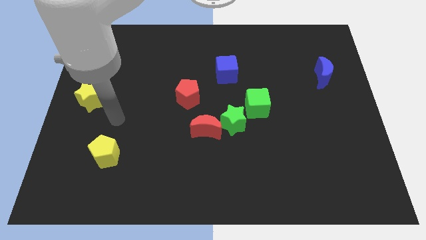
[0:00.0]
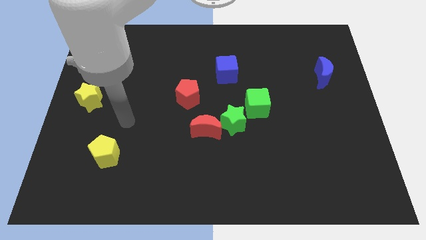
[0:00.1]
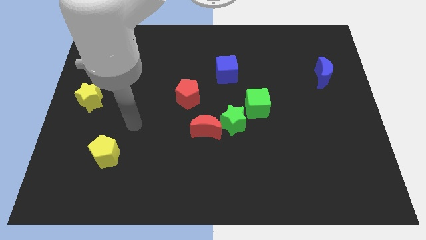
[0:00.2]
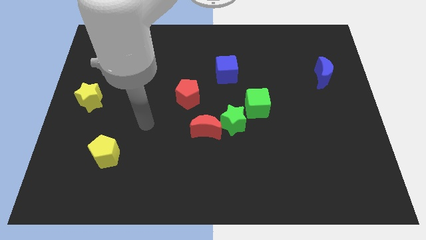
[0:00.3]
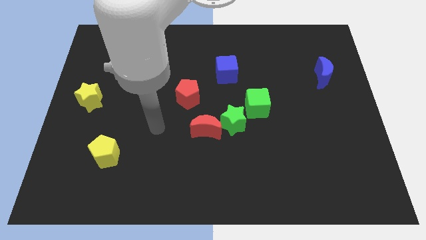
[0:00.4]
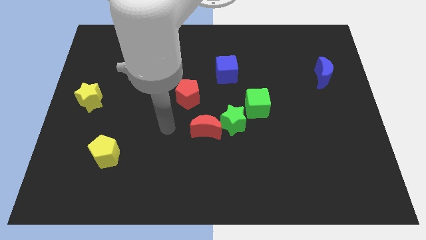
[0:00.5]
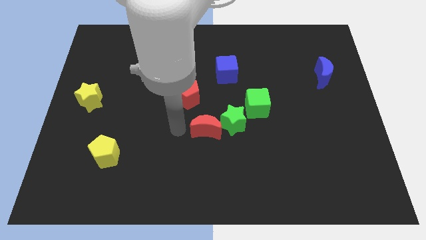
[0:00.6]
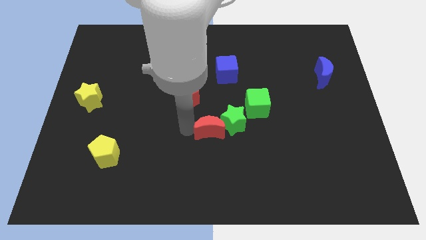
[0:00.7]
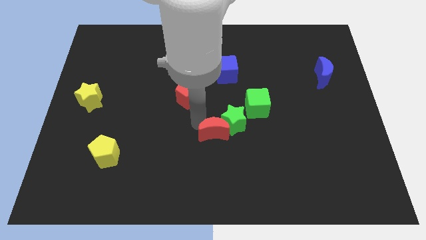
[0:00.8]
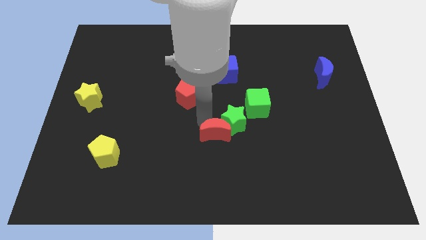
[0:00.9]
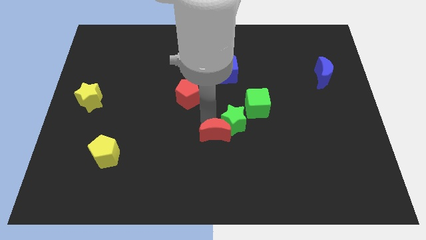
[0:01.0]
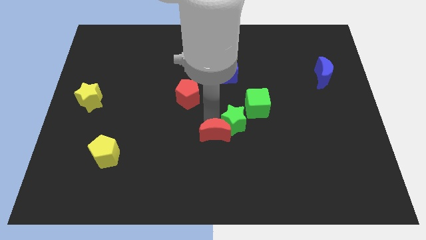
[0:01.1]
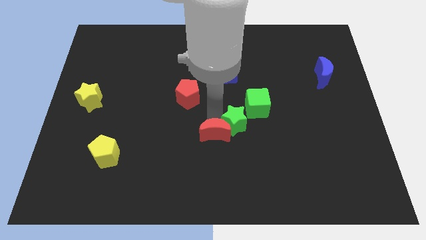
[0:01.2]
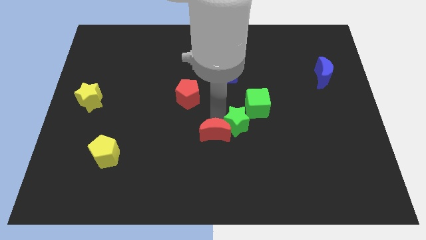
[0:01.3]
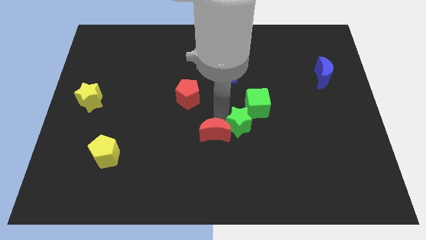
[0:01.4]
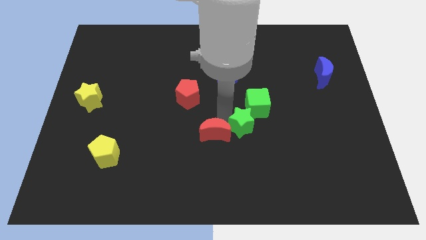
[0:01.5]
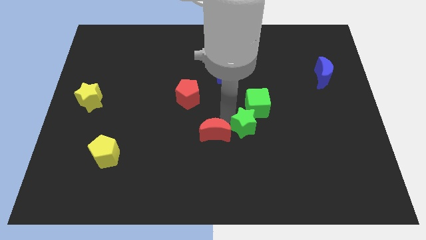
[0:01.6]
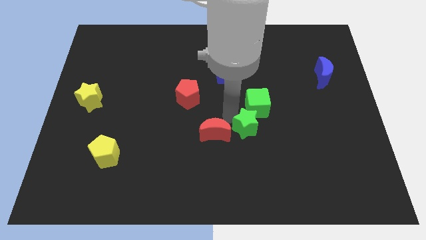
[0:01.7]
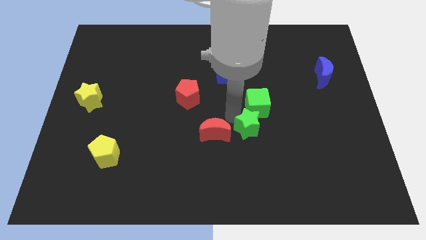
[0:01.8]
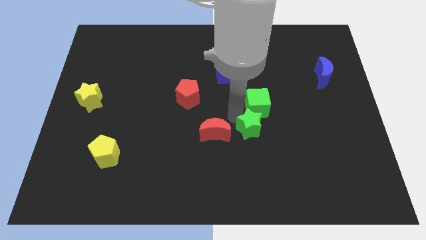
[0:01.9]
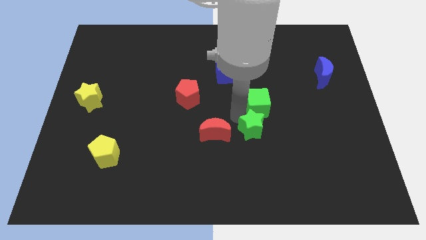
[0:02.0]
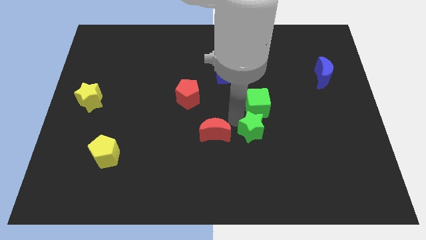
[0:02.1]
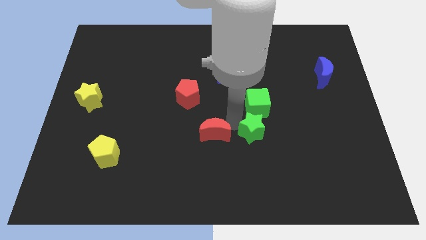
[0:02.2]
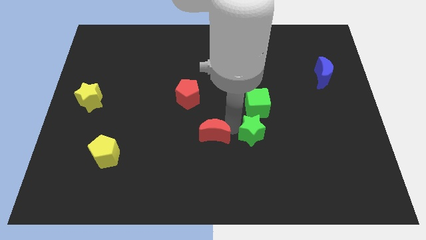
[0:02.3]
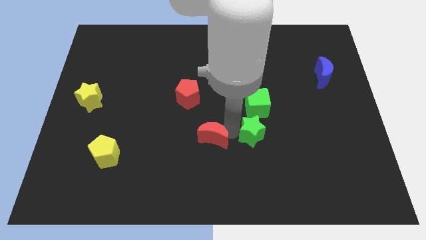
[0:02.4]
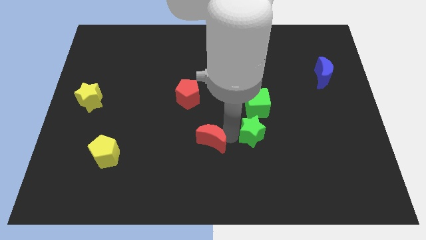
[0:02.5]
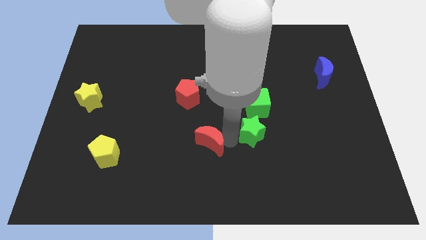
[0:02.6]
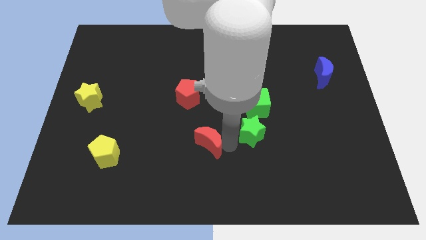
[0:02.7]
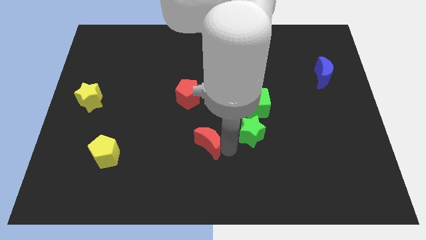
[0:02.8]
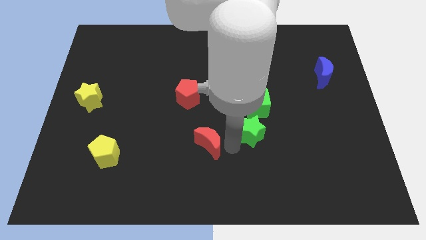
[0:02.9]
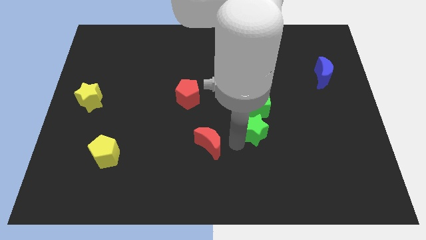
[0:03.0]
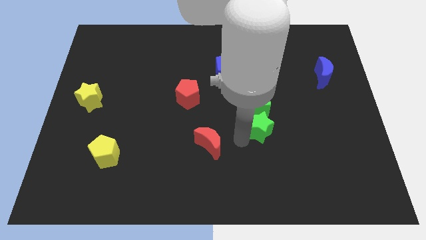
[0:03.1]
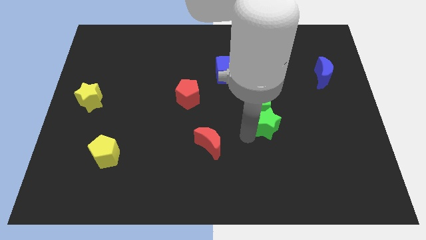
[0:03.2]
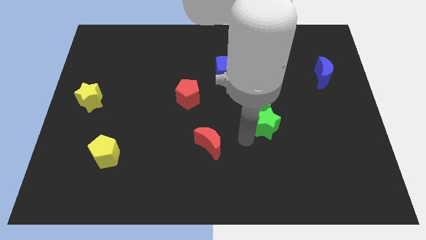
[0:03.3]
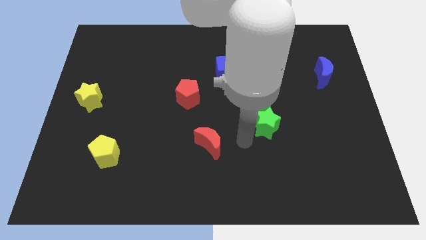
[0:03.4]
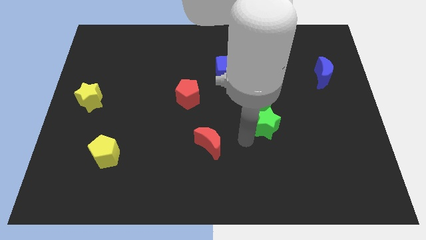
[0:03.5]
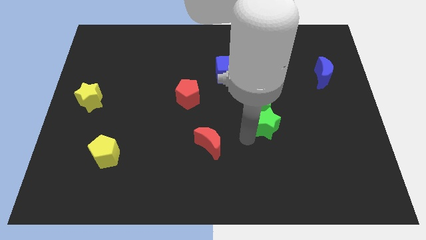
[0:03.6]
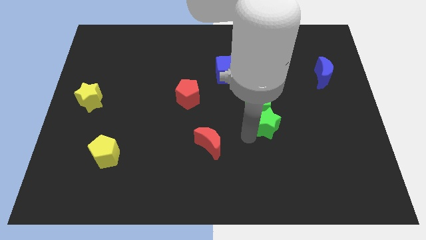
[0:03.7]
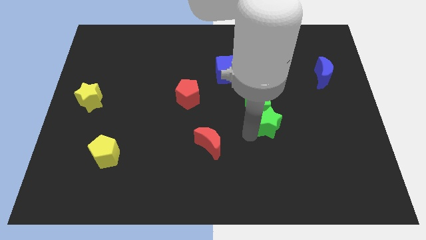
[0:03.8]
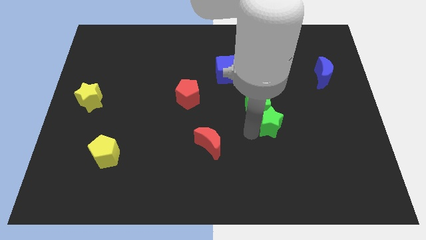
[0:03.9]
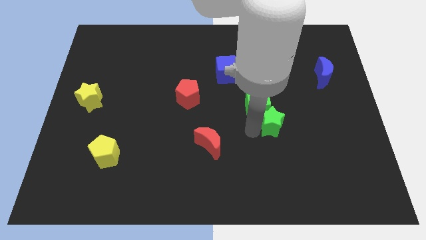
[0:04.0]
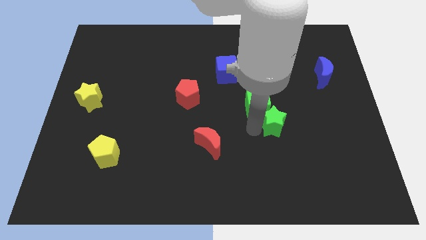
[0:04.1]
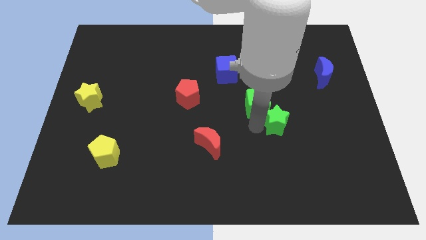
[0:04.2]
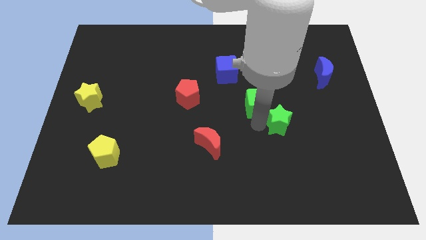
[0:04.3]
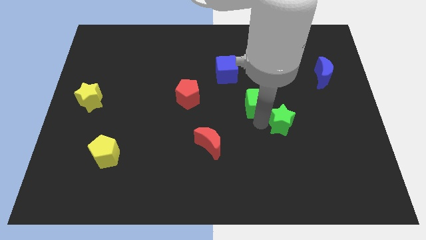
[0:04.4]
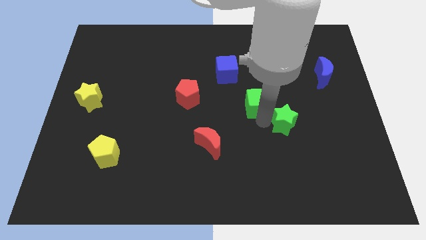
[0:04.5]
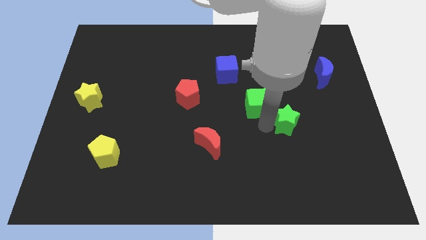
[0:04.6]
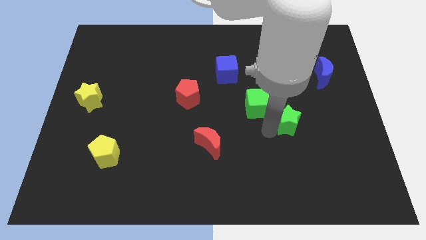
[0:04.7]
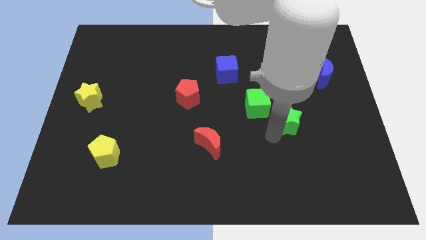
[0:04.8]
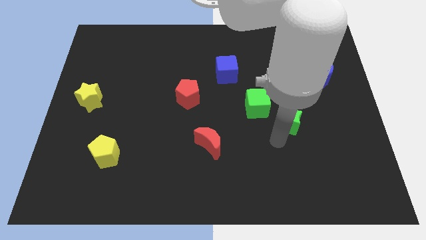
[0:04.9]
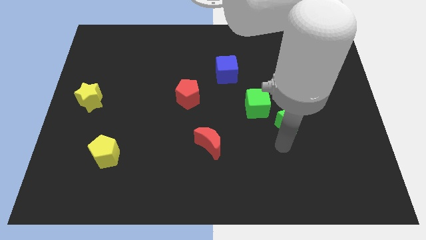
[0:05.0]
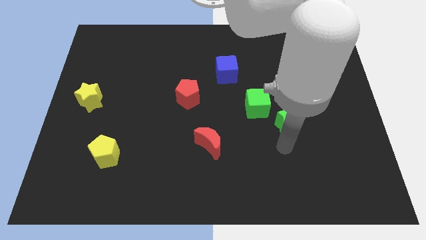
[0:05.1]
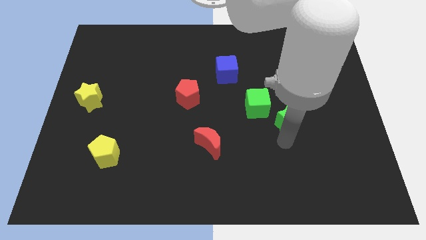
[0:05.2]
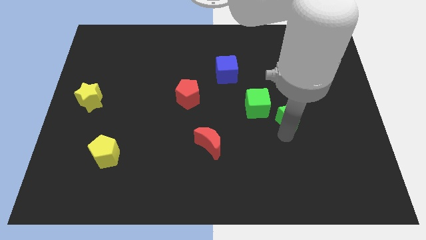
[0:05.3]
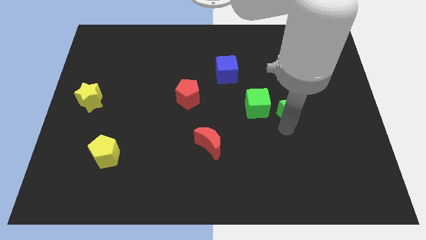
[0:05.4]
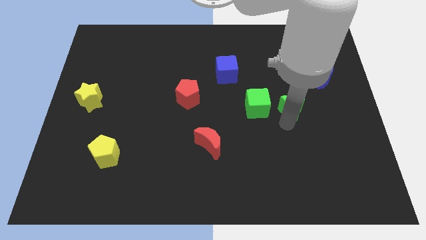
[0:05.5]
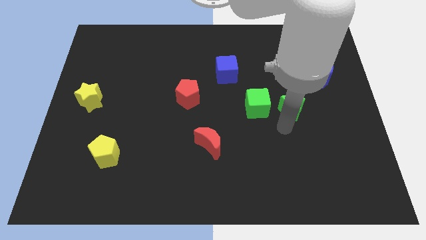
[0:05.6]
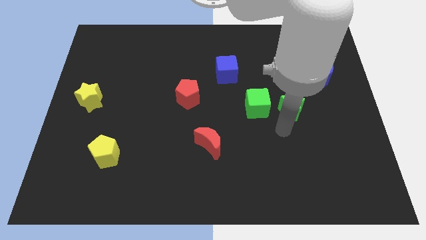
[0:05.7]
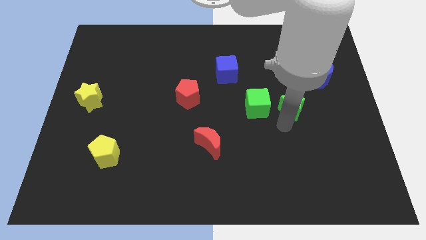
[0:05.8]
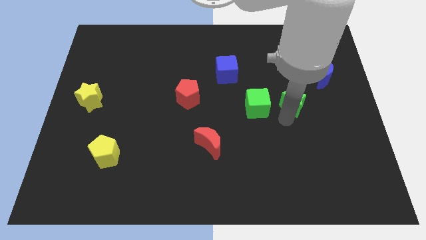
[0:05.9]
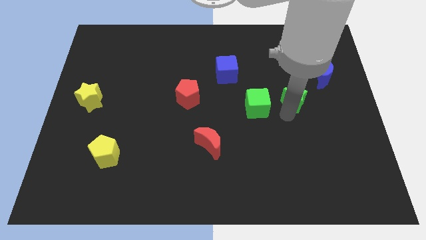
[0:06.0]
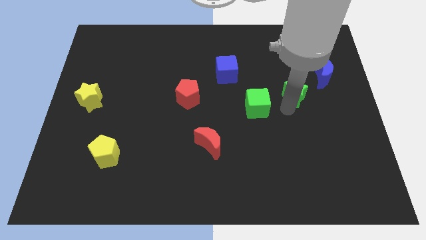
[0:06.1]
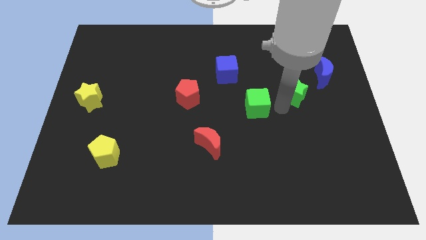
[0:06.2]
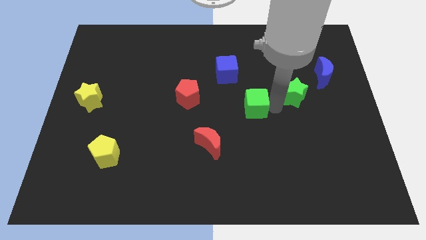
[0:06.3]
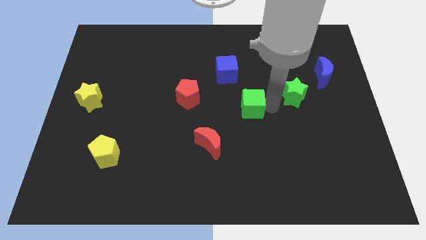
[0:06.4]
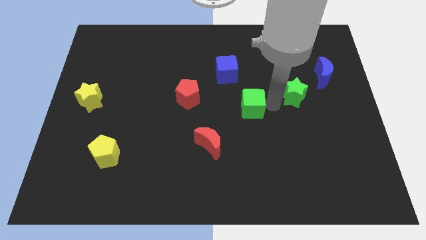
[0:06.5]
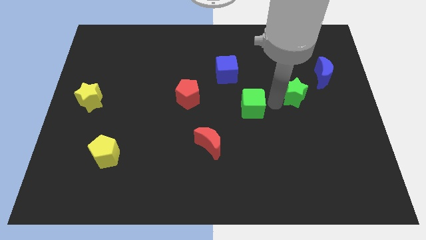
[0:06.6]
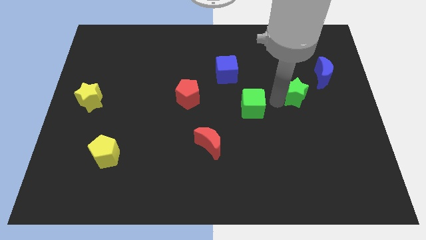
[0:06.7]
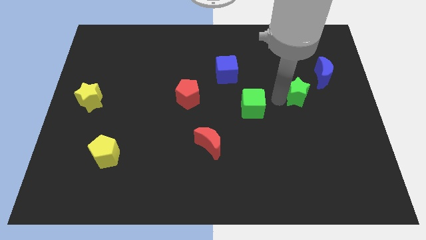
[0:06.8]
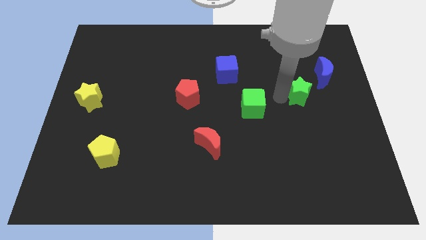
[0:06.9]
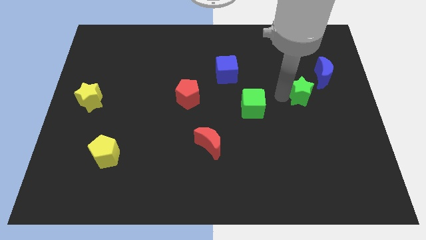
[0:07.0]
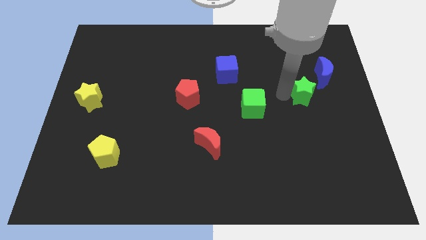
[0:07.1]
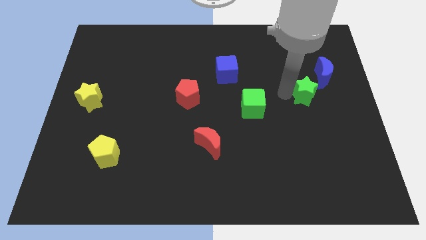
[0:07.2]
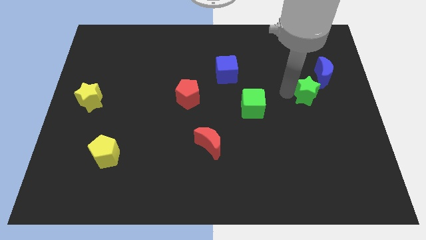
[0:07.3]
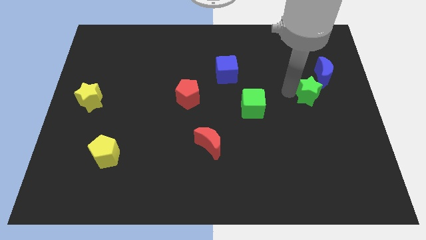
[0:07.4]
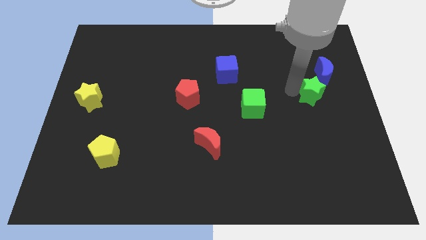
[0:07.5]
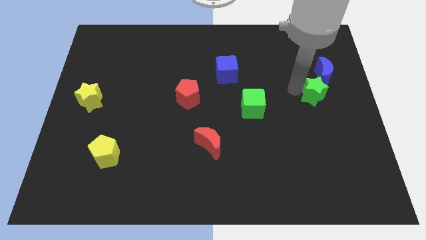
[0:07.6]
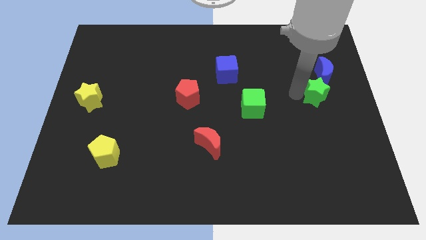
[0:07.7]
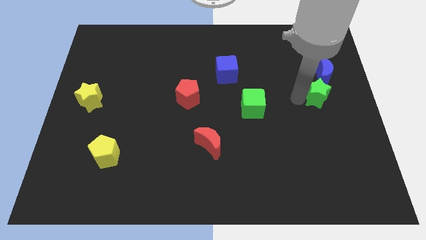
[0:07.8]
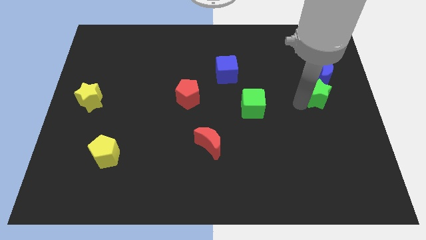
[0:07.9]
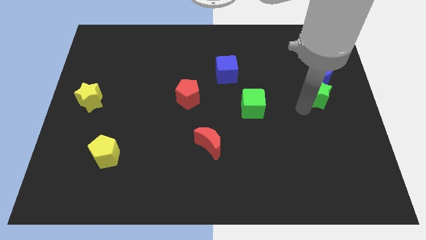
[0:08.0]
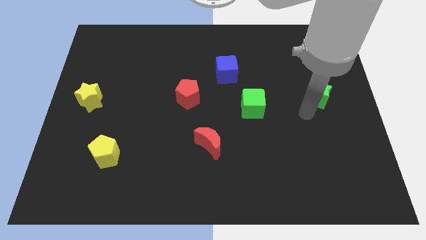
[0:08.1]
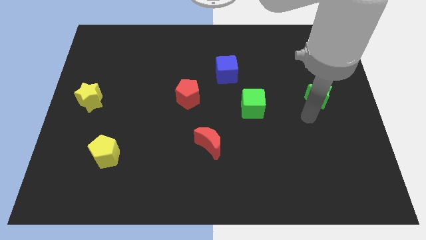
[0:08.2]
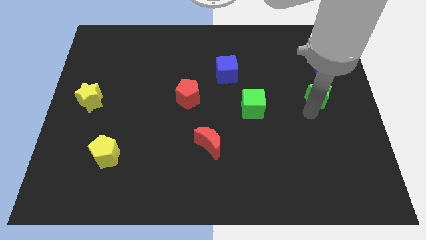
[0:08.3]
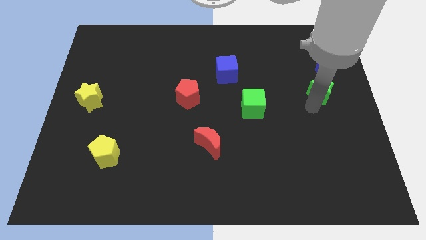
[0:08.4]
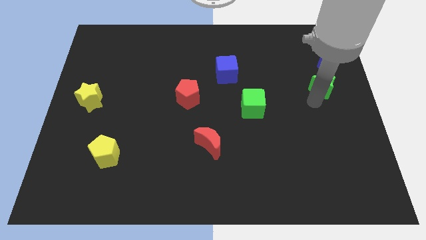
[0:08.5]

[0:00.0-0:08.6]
push the green star to the blue moon
